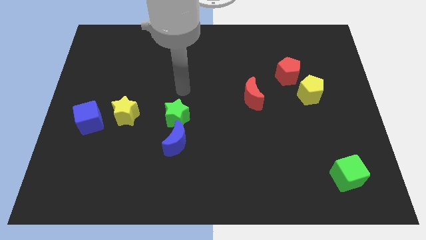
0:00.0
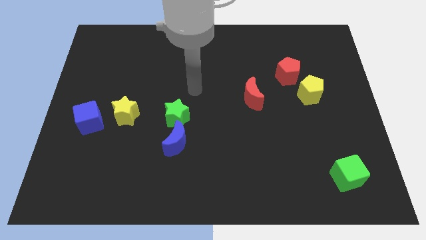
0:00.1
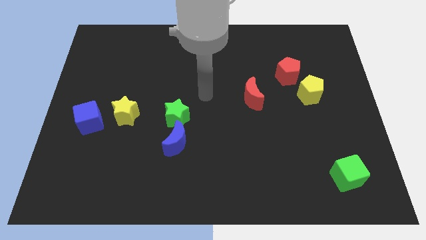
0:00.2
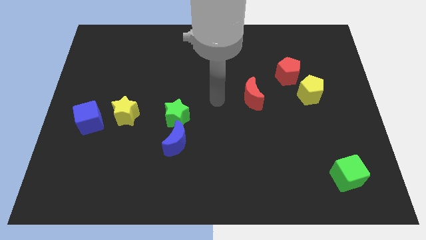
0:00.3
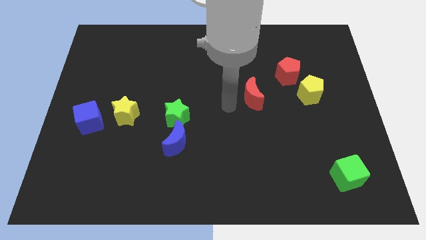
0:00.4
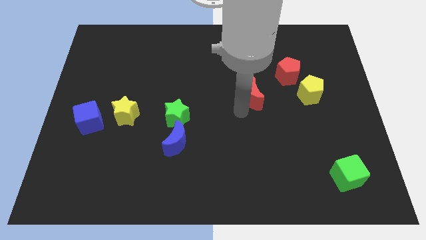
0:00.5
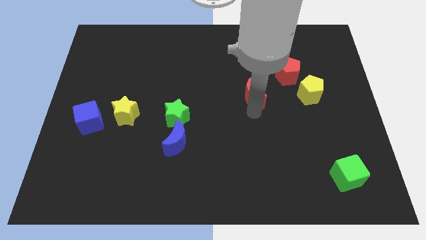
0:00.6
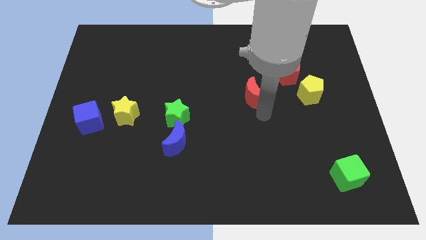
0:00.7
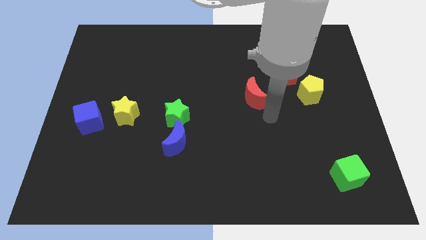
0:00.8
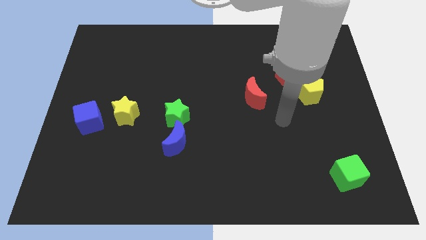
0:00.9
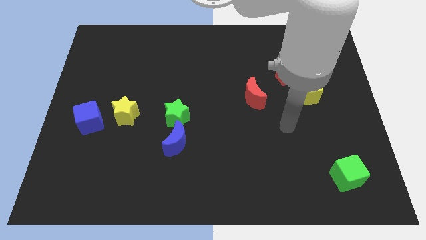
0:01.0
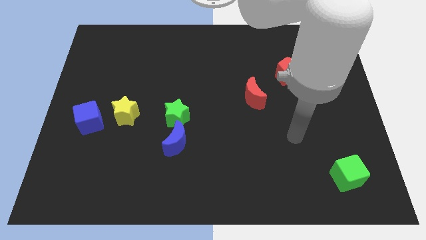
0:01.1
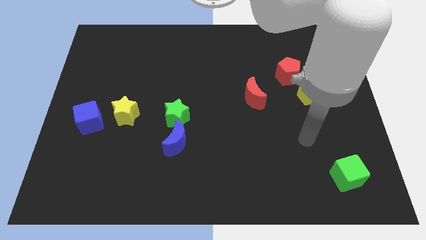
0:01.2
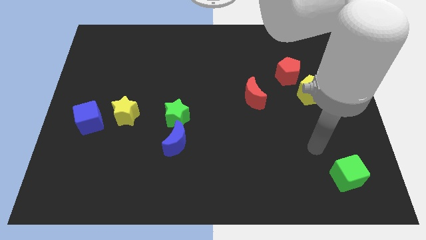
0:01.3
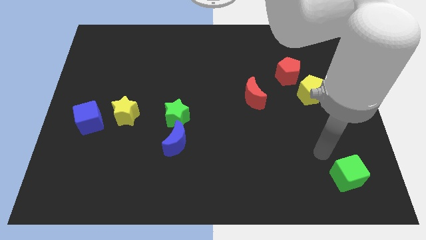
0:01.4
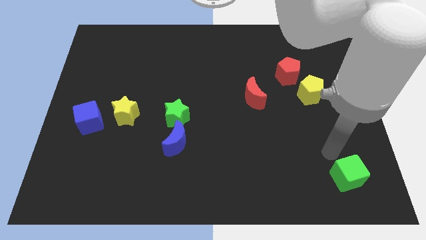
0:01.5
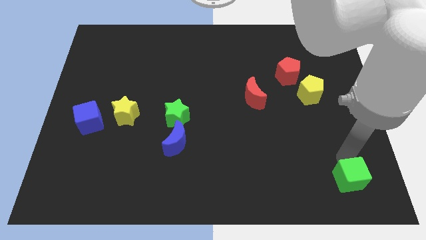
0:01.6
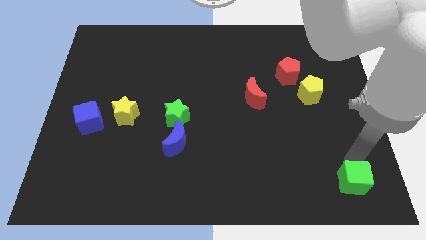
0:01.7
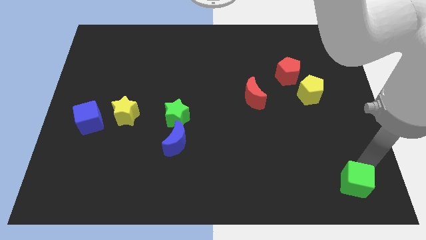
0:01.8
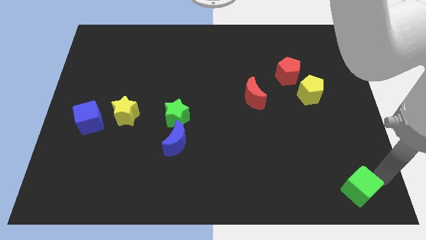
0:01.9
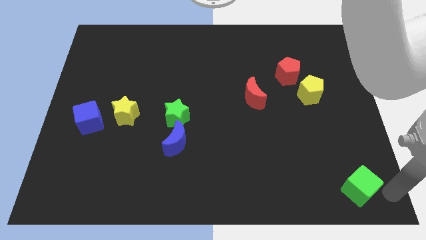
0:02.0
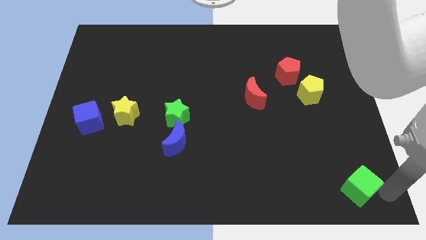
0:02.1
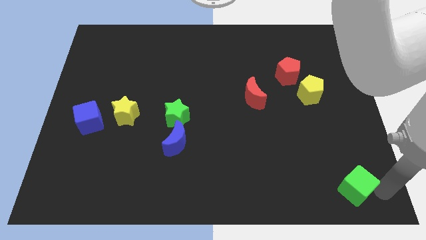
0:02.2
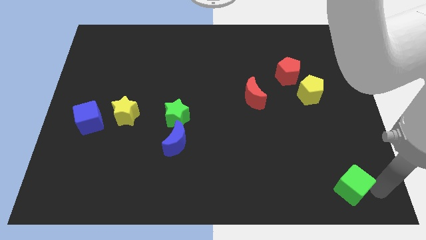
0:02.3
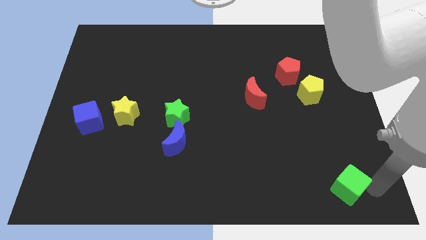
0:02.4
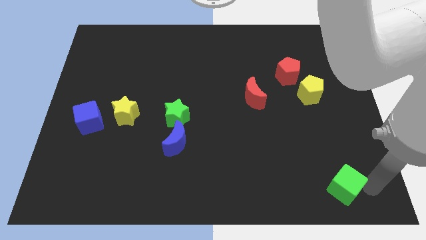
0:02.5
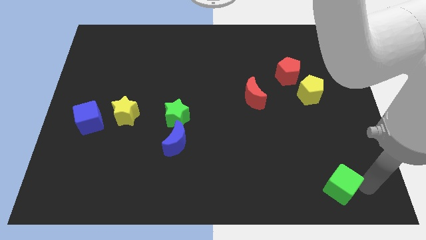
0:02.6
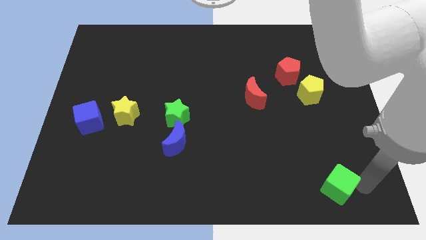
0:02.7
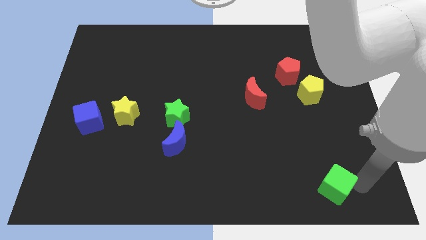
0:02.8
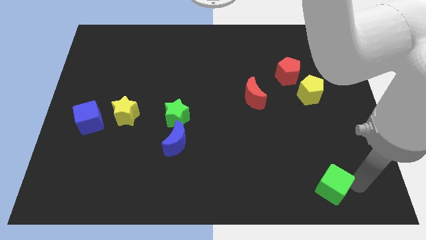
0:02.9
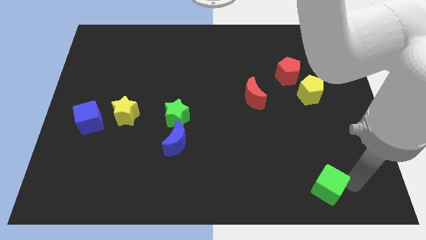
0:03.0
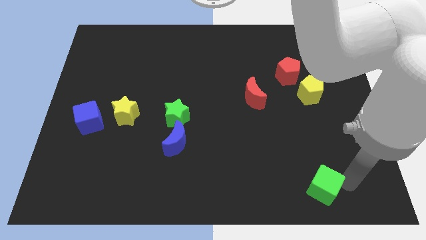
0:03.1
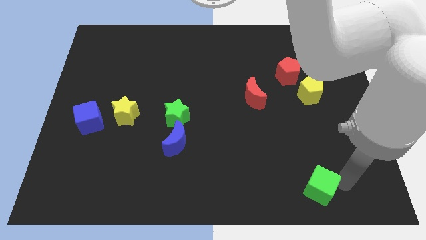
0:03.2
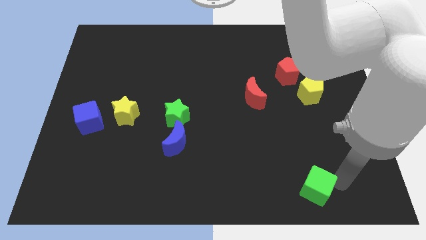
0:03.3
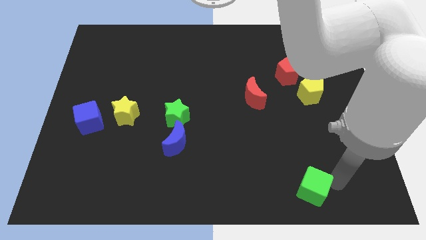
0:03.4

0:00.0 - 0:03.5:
slightly push the green cube to the left

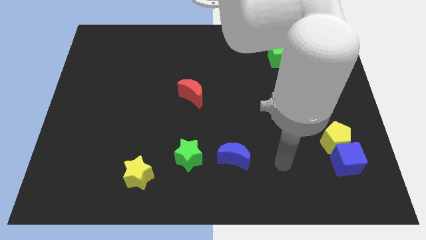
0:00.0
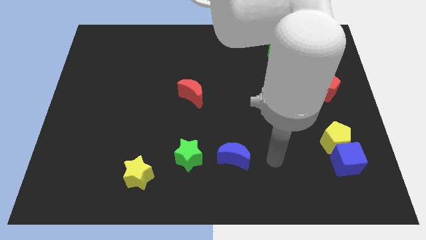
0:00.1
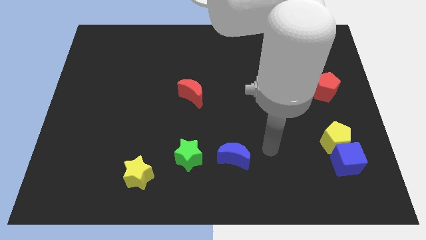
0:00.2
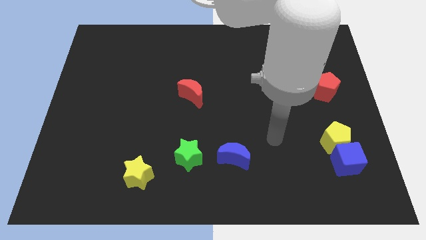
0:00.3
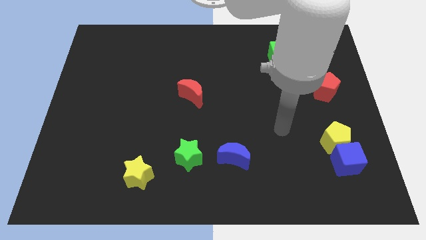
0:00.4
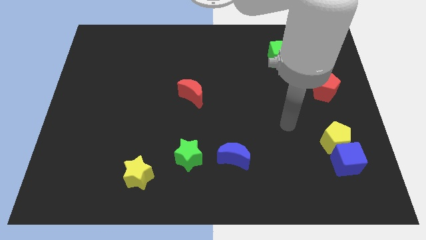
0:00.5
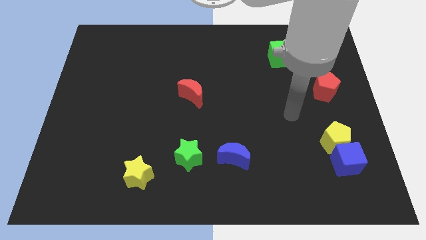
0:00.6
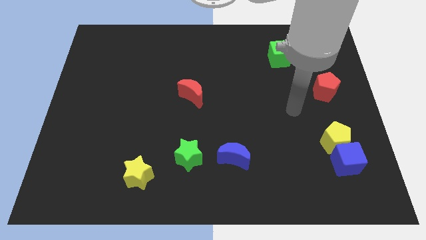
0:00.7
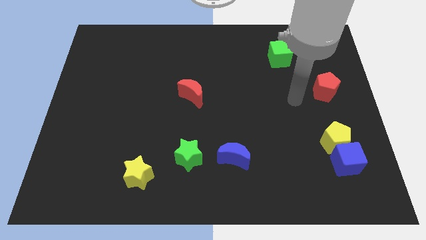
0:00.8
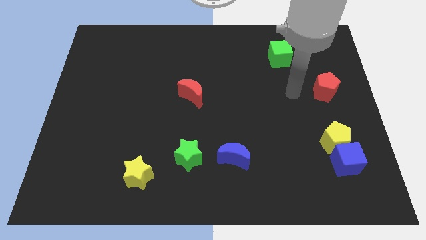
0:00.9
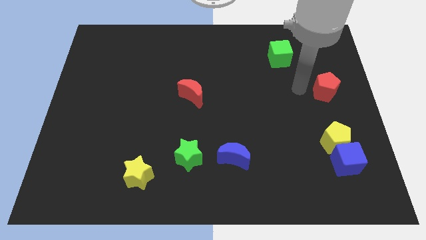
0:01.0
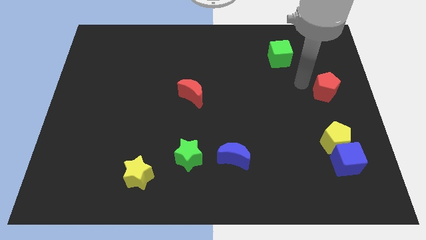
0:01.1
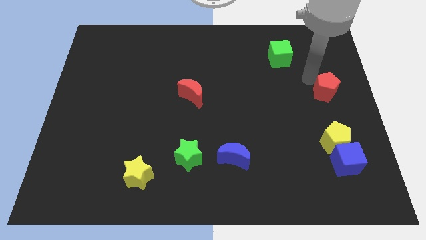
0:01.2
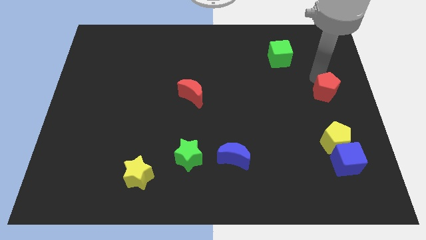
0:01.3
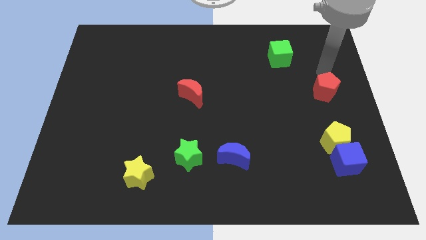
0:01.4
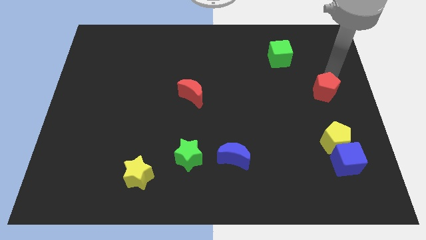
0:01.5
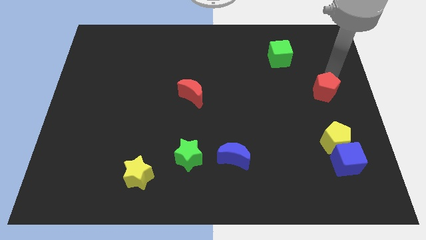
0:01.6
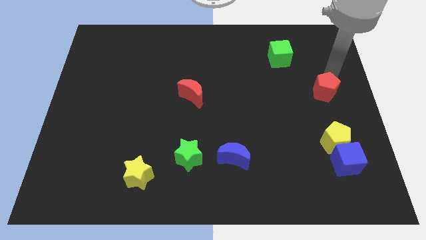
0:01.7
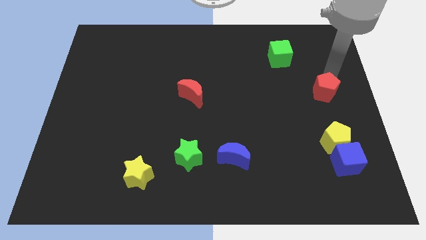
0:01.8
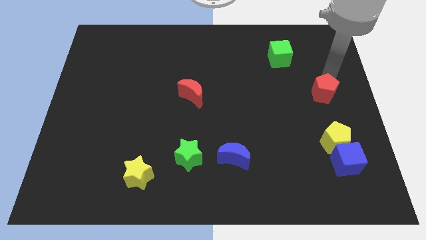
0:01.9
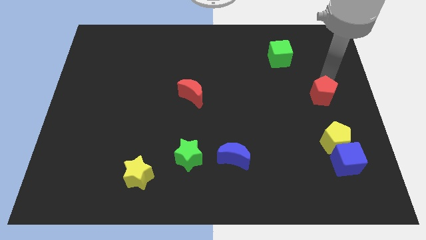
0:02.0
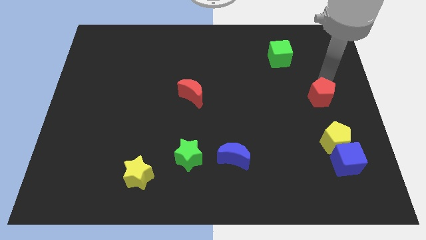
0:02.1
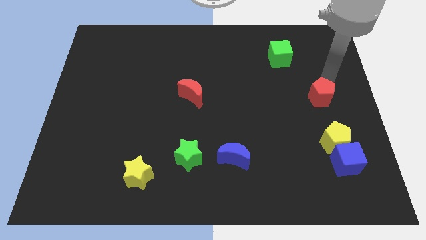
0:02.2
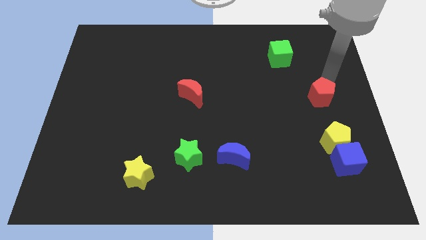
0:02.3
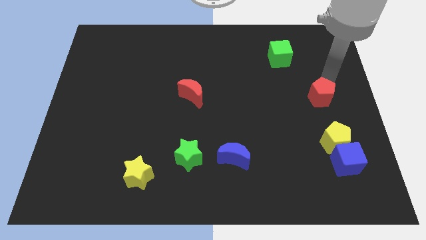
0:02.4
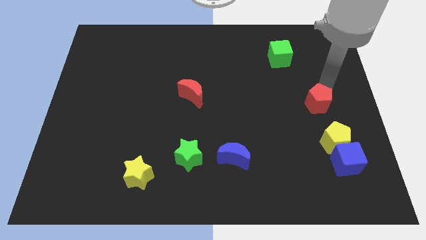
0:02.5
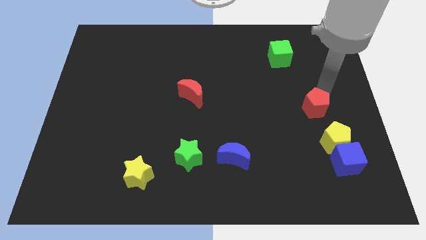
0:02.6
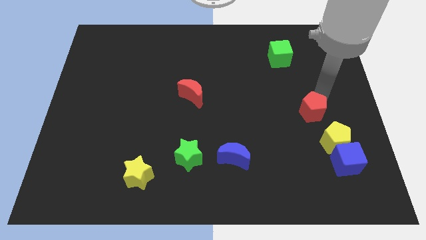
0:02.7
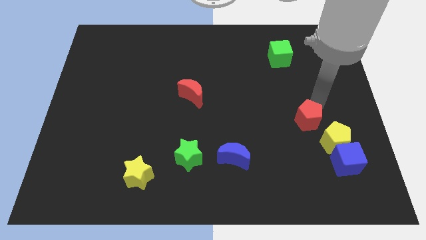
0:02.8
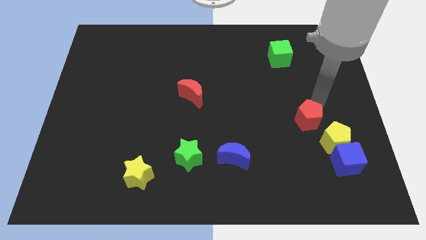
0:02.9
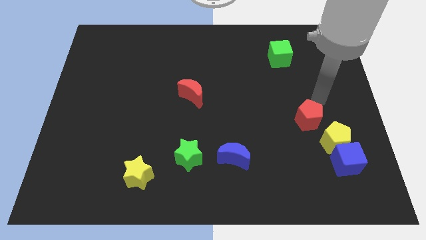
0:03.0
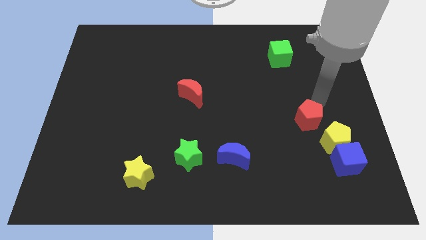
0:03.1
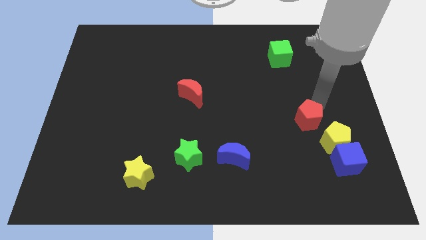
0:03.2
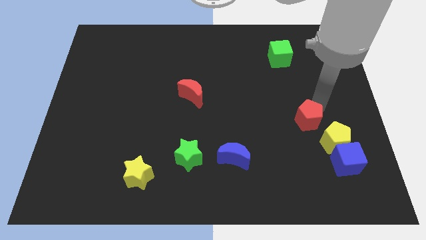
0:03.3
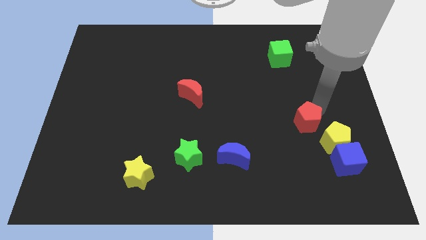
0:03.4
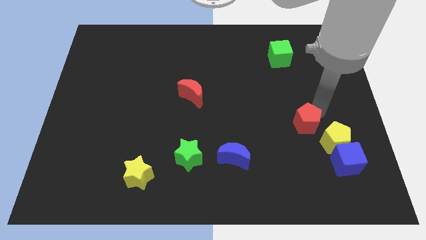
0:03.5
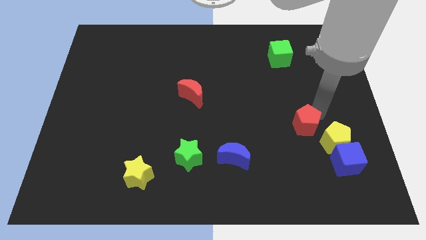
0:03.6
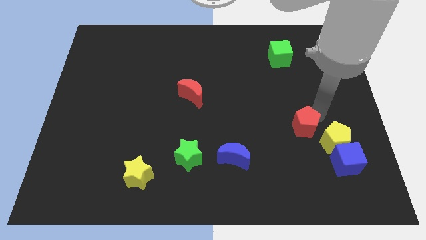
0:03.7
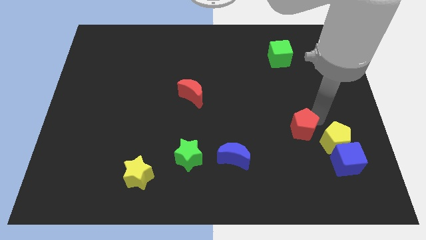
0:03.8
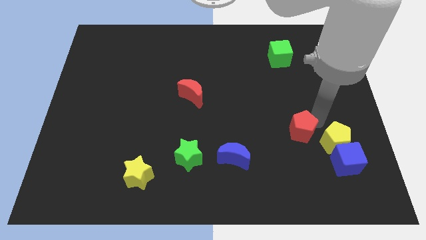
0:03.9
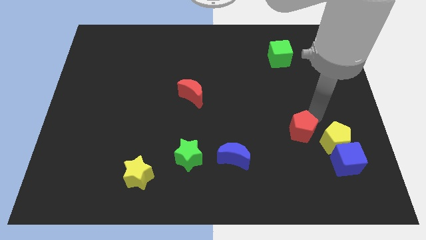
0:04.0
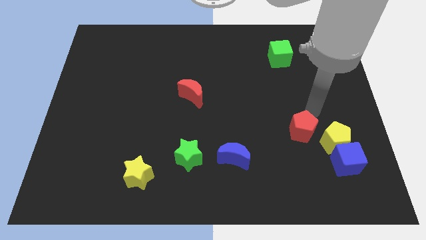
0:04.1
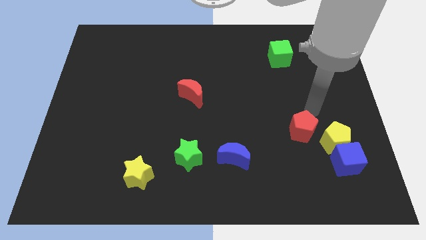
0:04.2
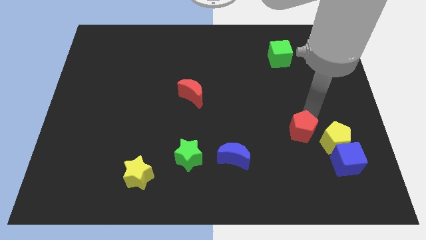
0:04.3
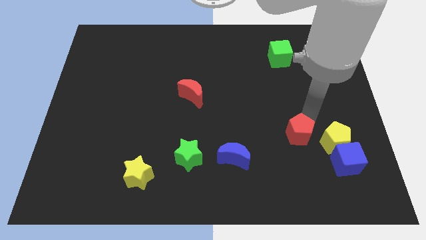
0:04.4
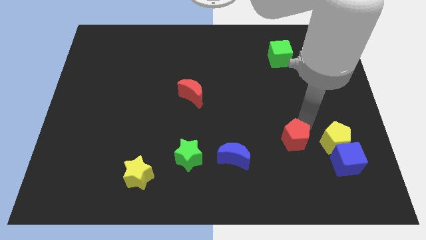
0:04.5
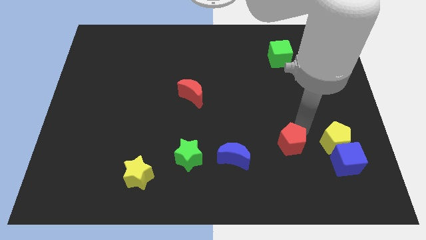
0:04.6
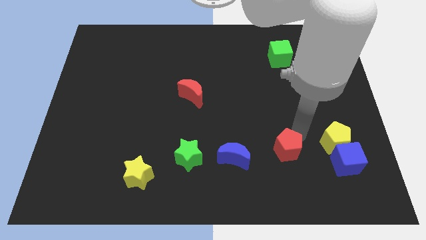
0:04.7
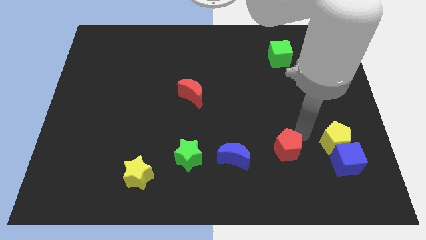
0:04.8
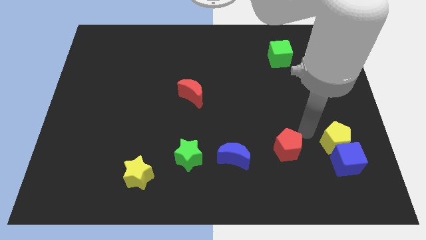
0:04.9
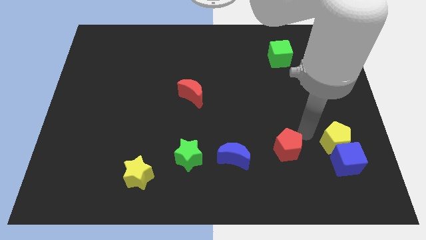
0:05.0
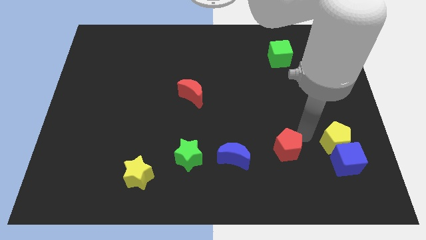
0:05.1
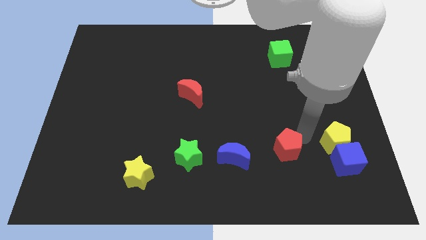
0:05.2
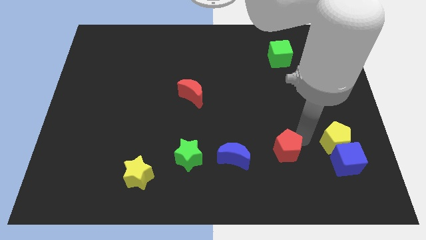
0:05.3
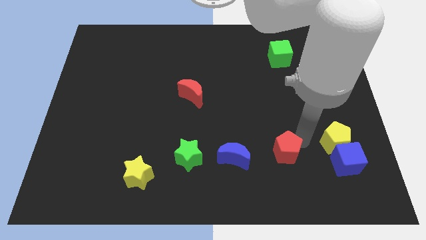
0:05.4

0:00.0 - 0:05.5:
move the red pentagon downwards and to the left
